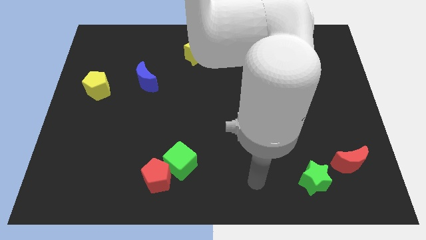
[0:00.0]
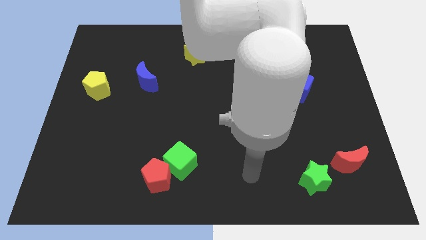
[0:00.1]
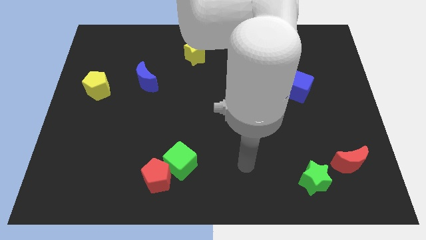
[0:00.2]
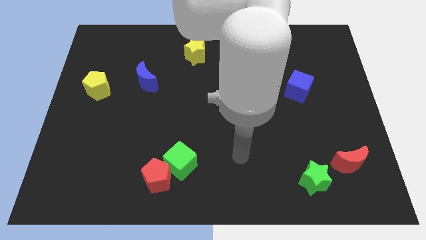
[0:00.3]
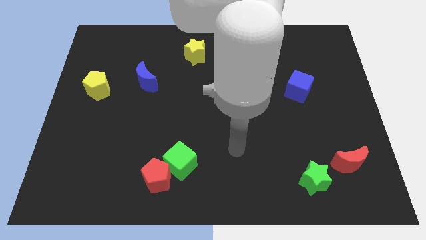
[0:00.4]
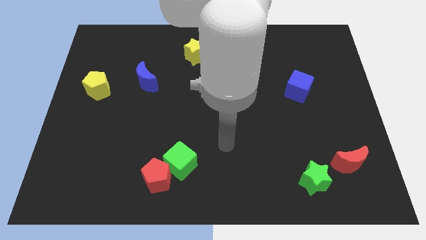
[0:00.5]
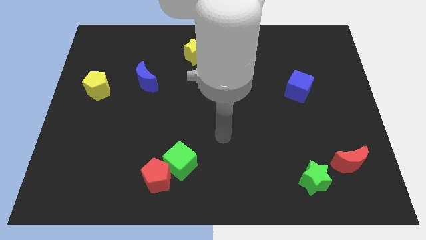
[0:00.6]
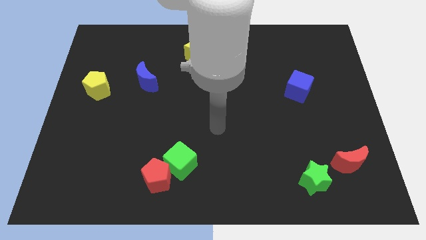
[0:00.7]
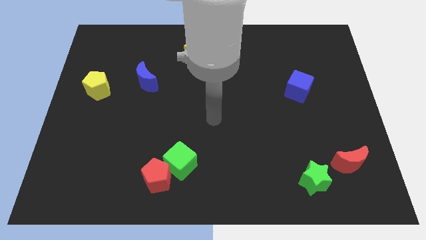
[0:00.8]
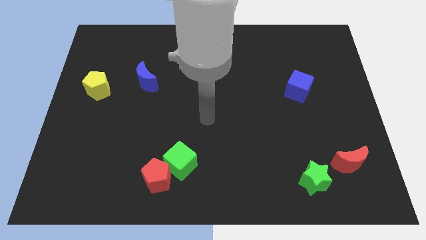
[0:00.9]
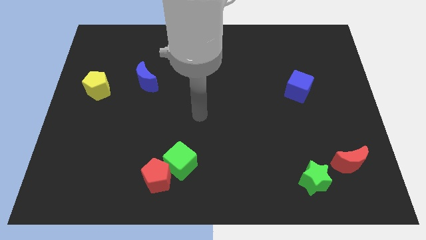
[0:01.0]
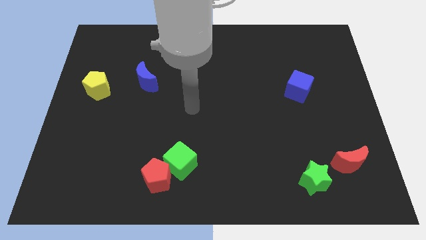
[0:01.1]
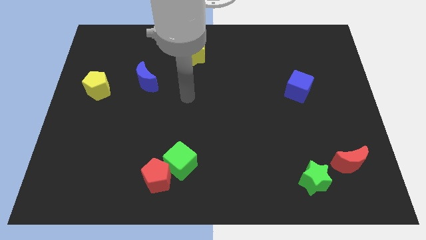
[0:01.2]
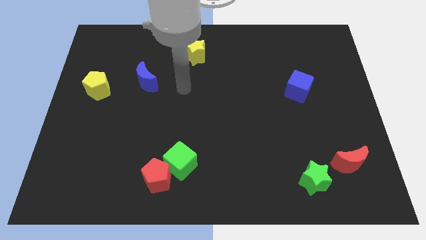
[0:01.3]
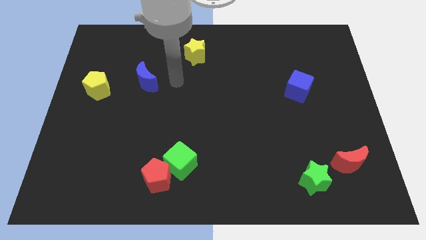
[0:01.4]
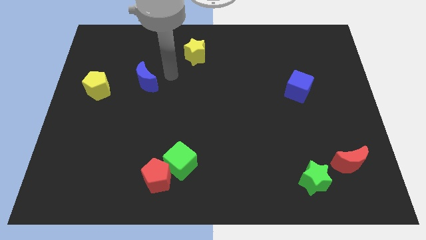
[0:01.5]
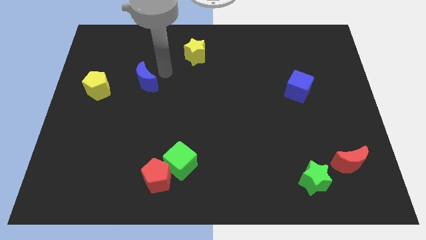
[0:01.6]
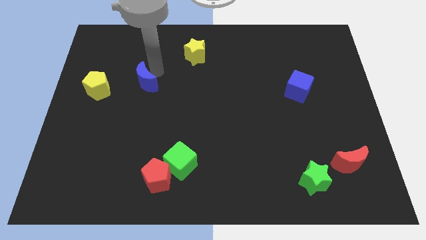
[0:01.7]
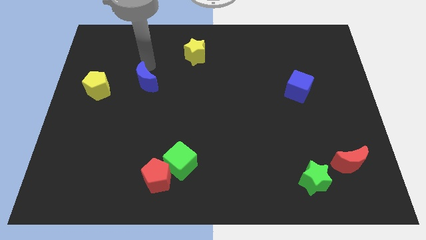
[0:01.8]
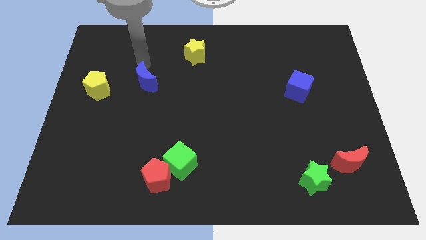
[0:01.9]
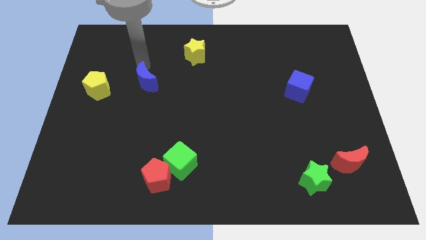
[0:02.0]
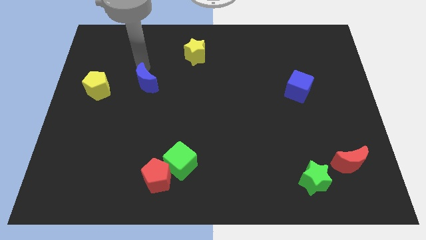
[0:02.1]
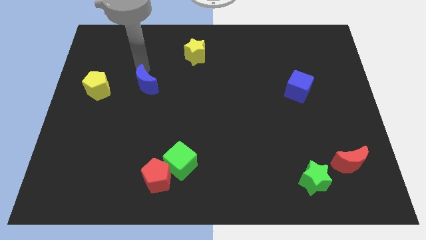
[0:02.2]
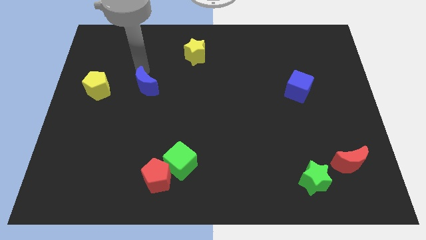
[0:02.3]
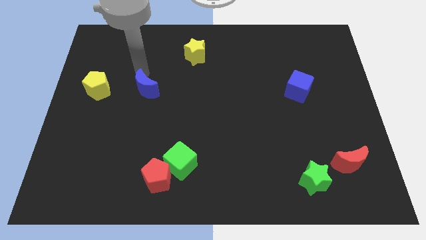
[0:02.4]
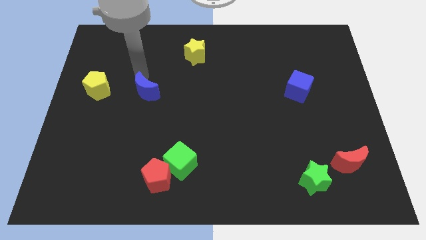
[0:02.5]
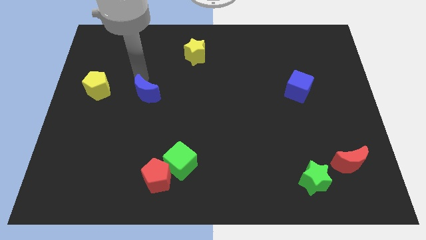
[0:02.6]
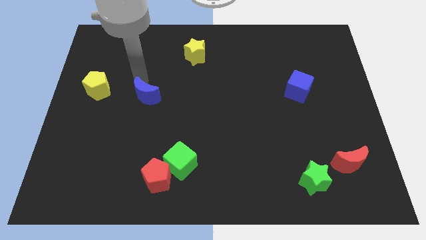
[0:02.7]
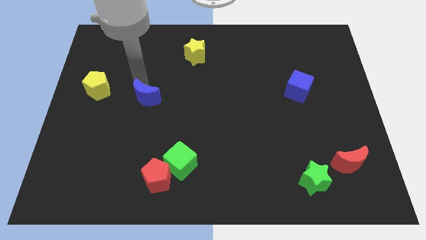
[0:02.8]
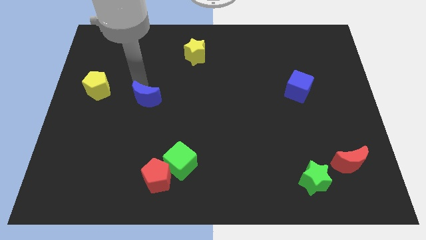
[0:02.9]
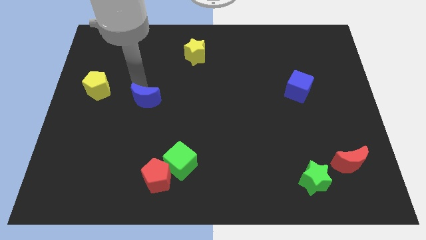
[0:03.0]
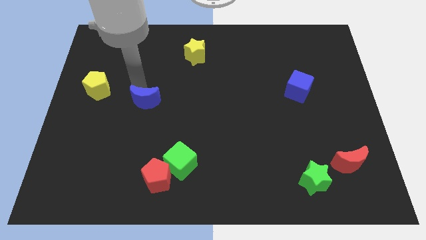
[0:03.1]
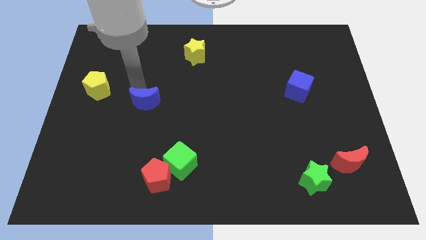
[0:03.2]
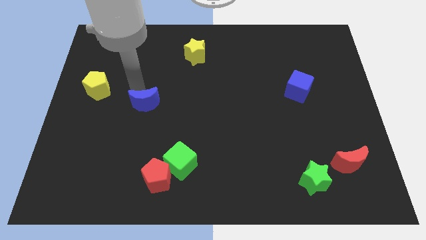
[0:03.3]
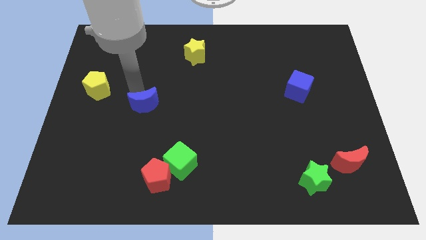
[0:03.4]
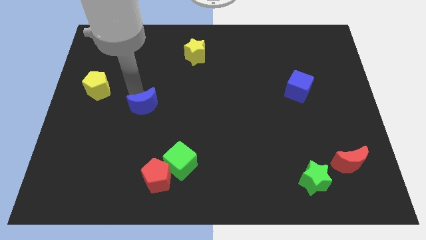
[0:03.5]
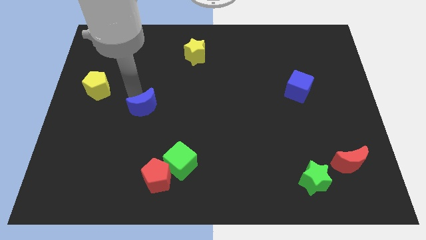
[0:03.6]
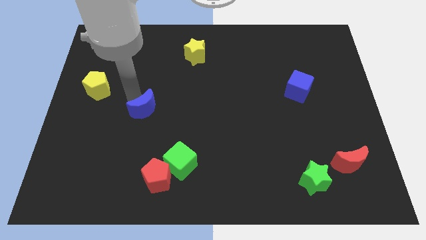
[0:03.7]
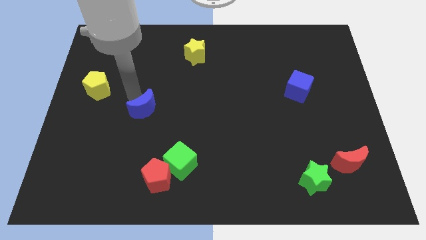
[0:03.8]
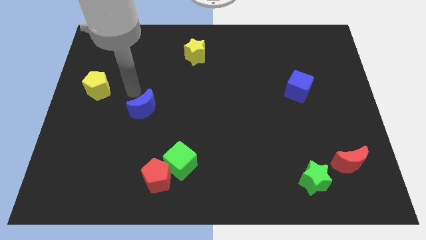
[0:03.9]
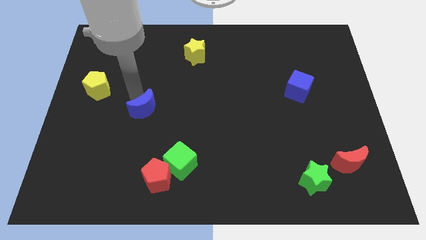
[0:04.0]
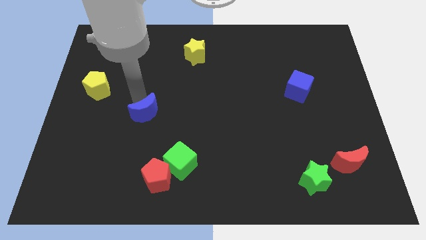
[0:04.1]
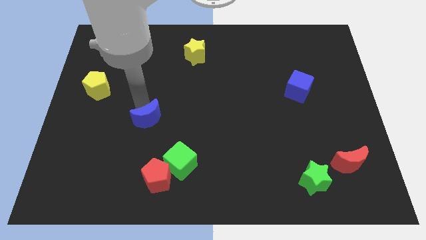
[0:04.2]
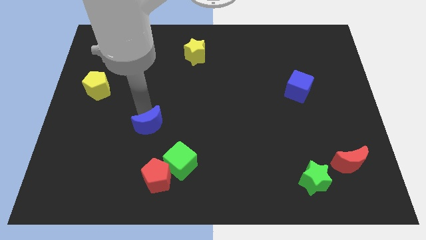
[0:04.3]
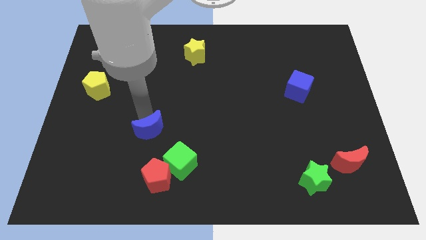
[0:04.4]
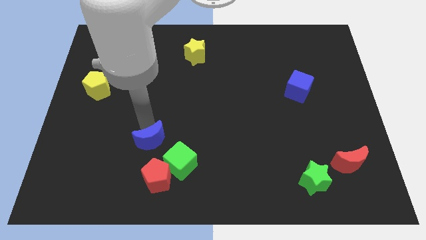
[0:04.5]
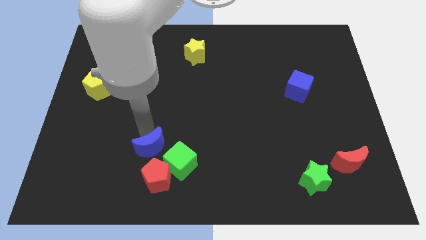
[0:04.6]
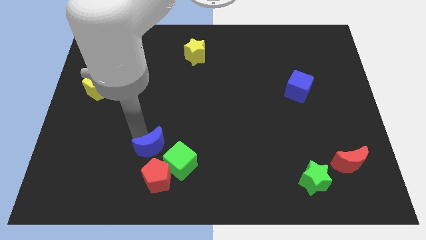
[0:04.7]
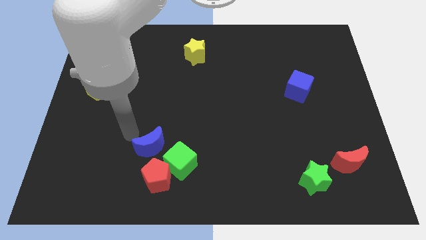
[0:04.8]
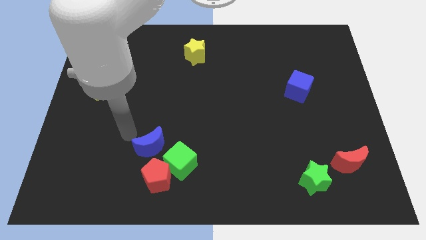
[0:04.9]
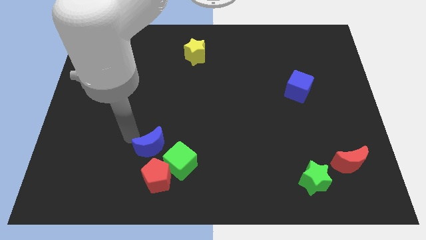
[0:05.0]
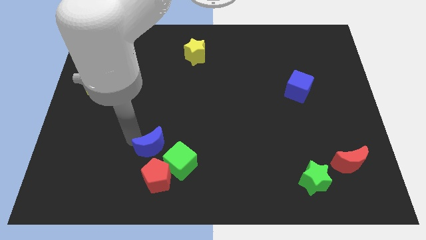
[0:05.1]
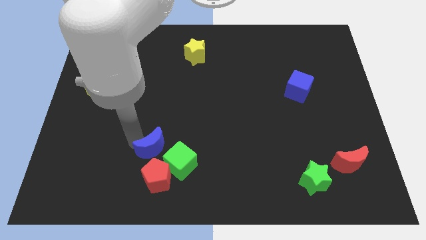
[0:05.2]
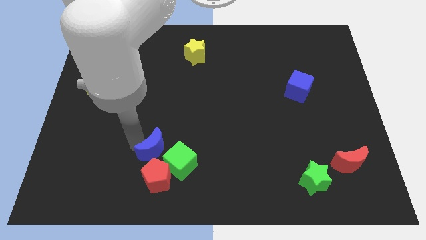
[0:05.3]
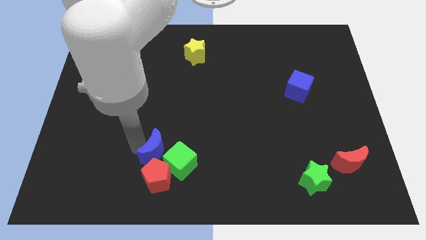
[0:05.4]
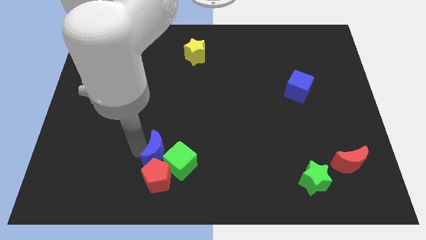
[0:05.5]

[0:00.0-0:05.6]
slide the blue moon next to the green cube

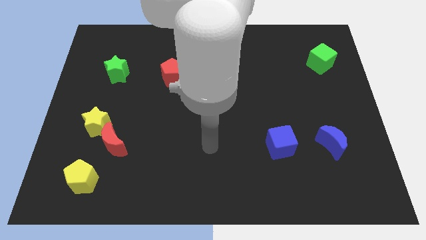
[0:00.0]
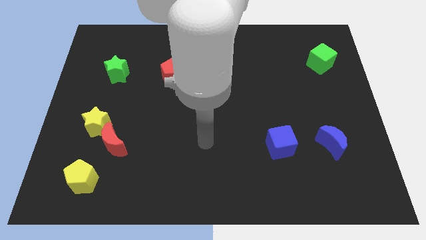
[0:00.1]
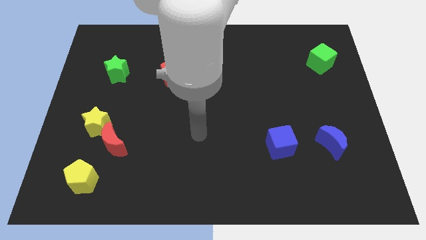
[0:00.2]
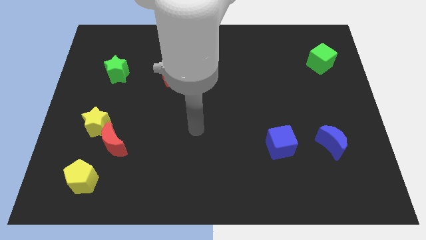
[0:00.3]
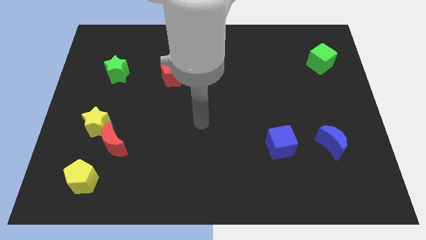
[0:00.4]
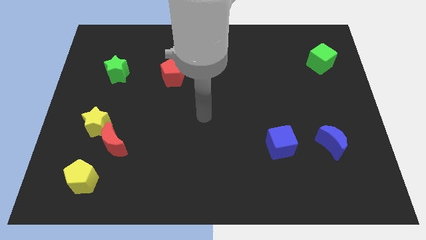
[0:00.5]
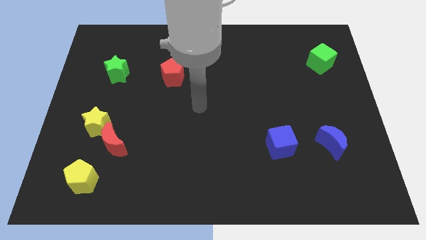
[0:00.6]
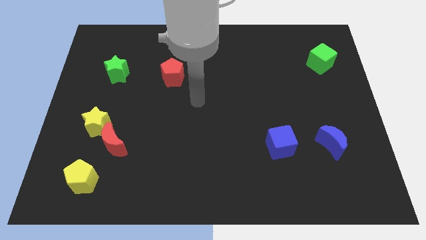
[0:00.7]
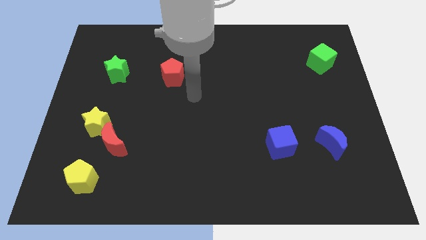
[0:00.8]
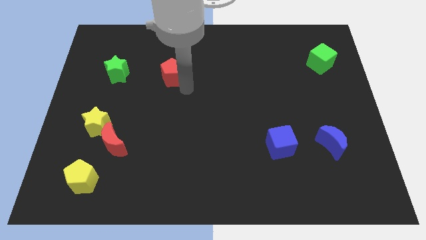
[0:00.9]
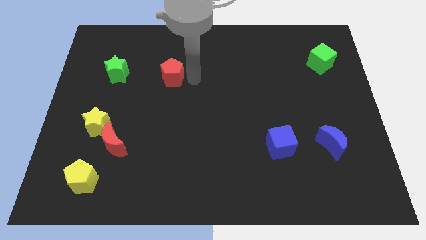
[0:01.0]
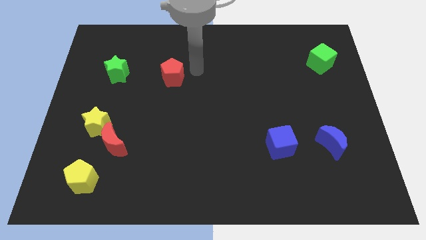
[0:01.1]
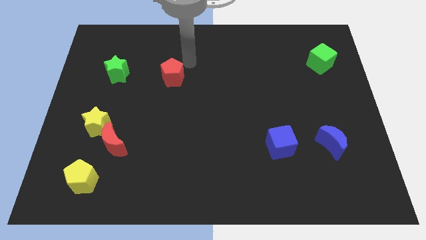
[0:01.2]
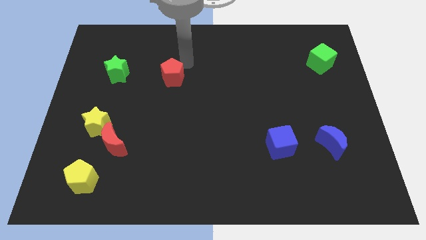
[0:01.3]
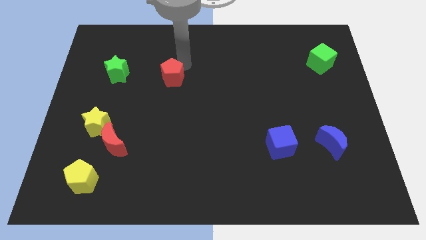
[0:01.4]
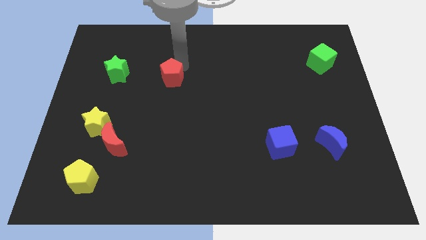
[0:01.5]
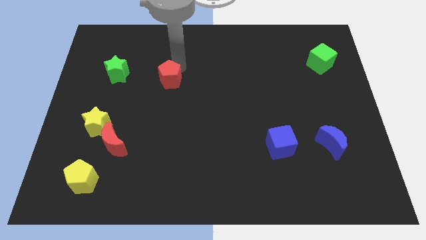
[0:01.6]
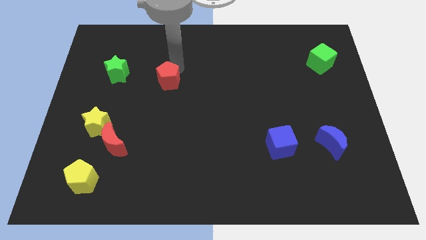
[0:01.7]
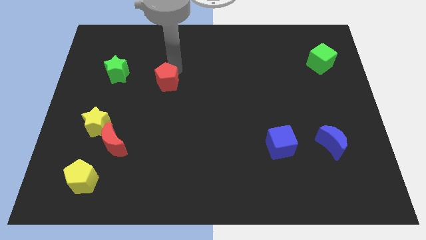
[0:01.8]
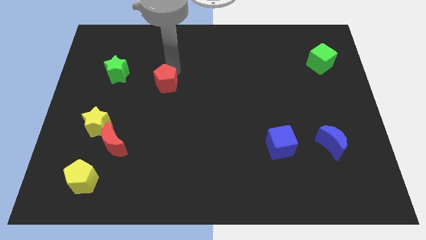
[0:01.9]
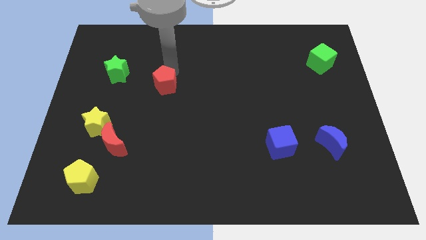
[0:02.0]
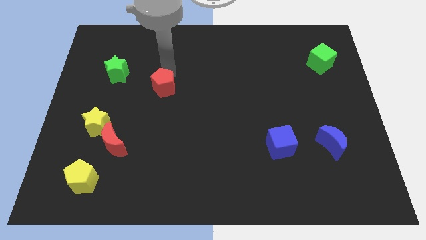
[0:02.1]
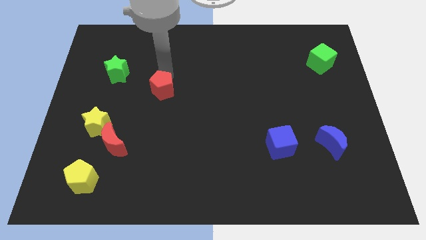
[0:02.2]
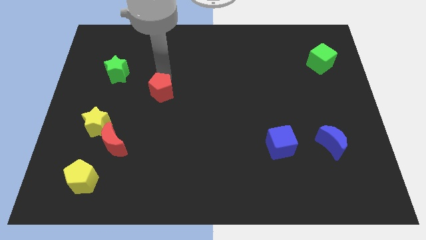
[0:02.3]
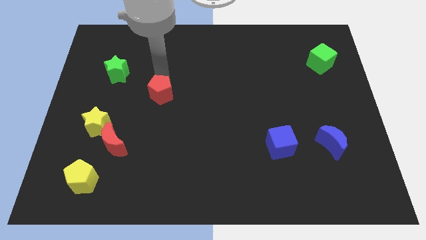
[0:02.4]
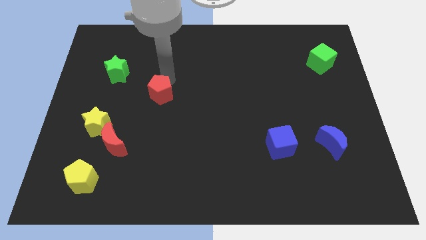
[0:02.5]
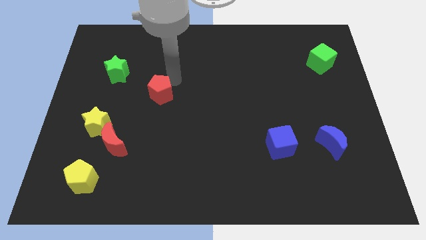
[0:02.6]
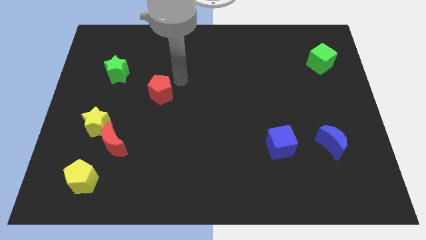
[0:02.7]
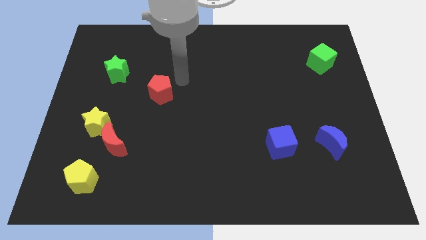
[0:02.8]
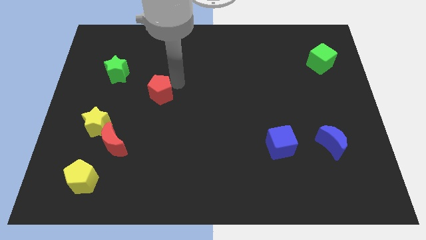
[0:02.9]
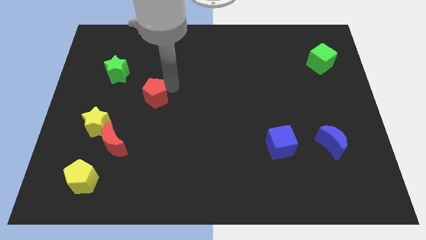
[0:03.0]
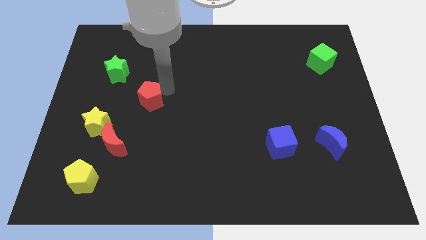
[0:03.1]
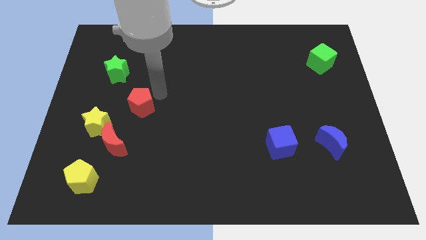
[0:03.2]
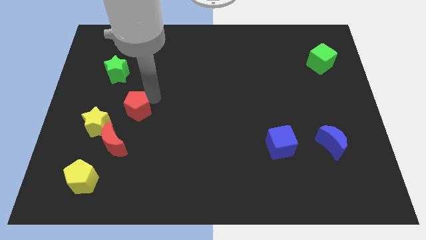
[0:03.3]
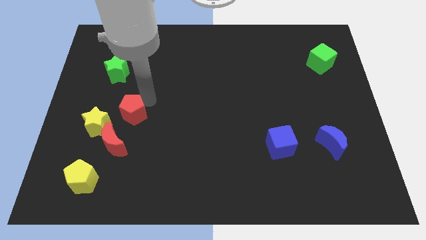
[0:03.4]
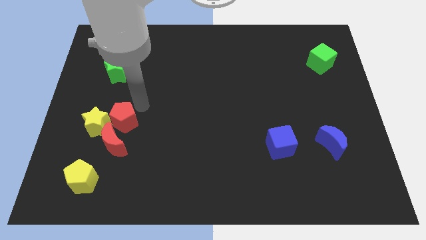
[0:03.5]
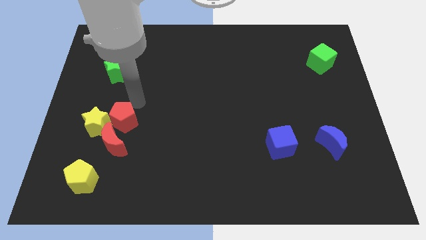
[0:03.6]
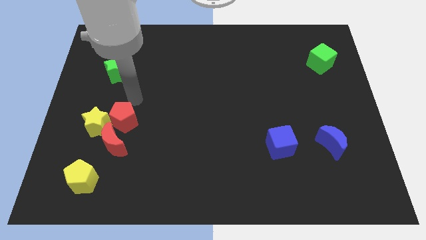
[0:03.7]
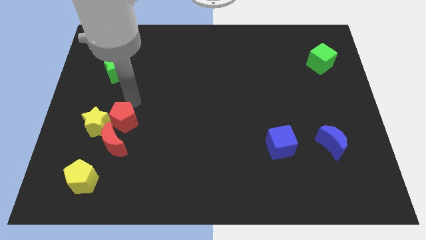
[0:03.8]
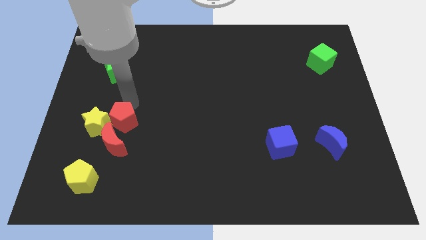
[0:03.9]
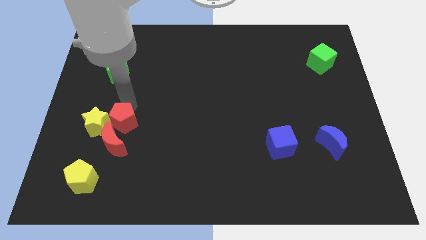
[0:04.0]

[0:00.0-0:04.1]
move the red pentagon close to the red moon
